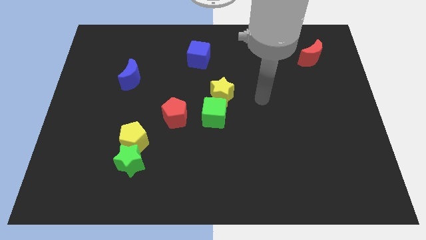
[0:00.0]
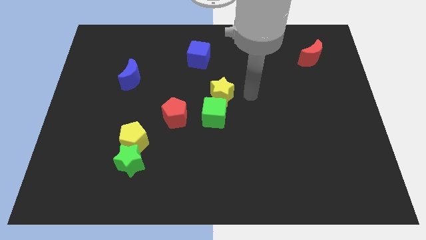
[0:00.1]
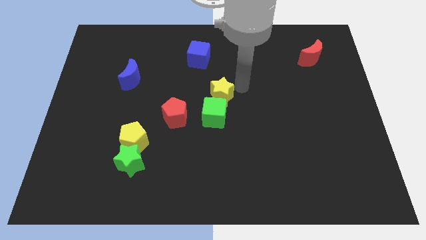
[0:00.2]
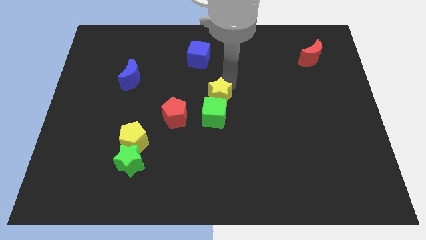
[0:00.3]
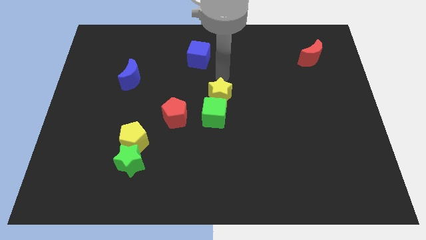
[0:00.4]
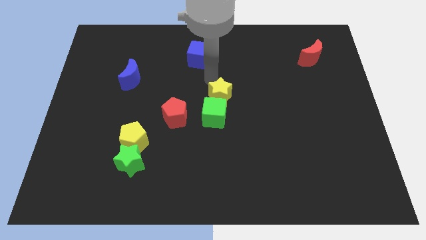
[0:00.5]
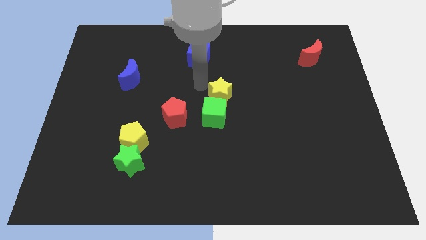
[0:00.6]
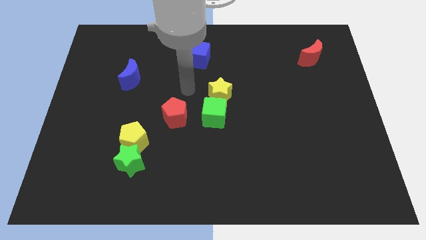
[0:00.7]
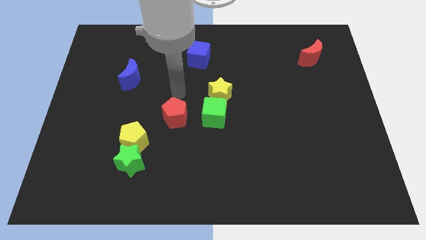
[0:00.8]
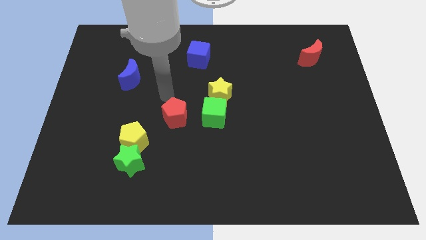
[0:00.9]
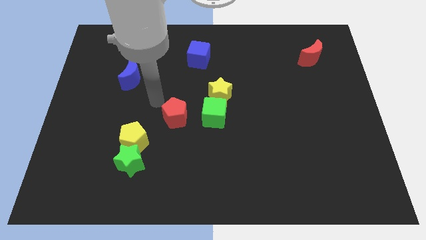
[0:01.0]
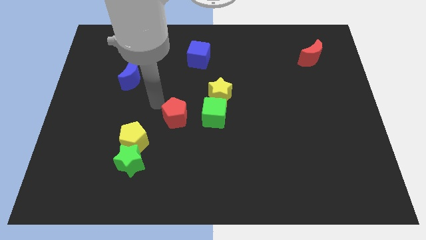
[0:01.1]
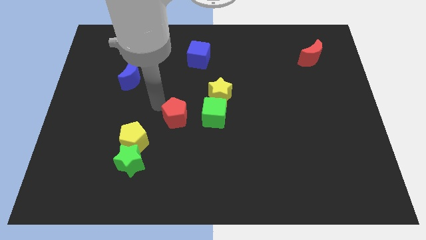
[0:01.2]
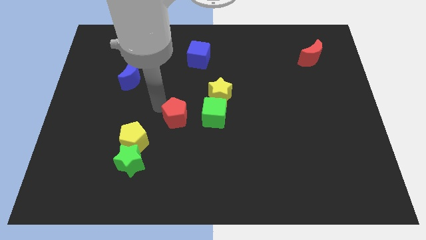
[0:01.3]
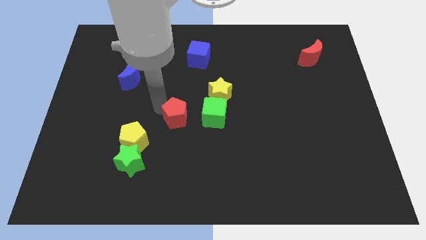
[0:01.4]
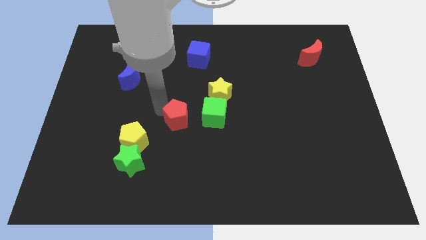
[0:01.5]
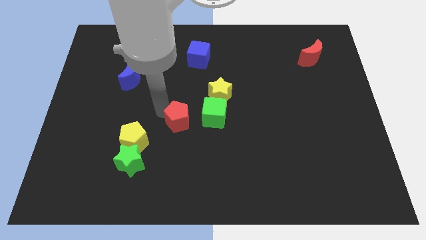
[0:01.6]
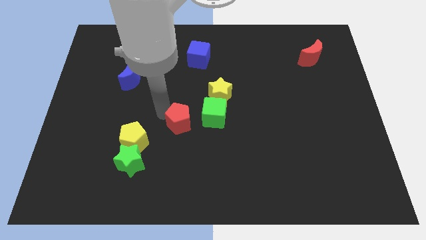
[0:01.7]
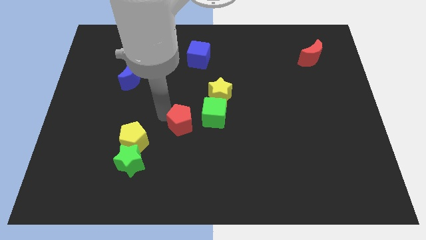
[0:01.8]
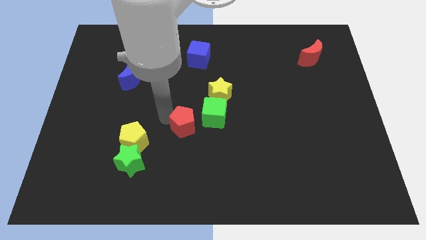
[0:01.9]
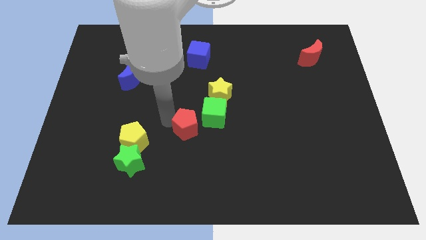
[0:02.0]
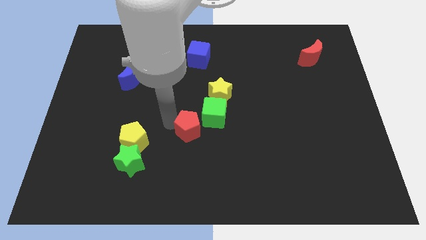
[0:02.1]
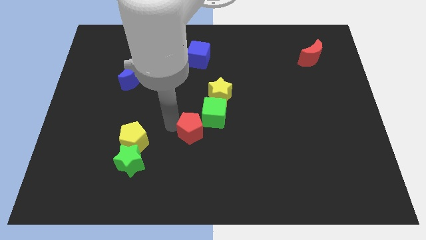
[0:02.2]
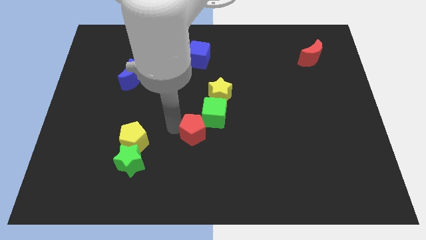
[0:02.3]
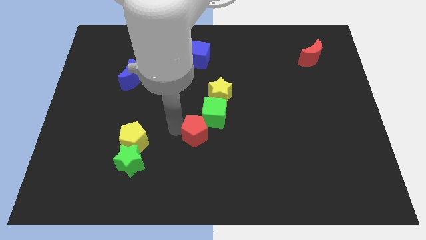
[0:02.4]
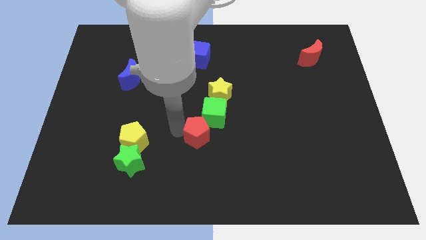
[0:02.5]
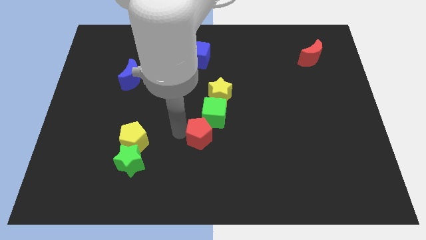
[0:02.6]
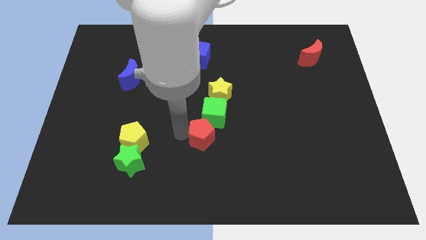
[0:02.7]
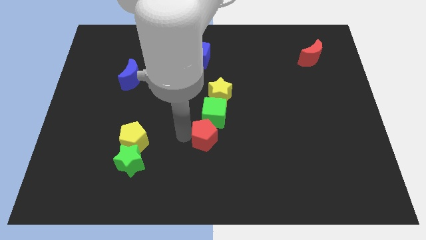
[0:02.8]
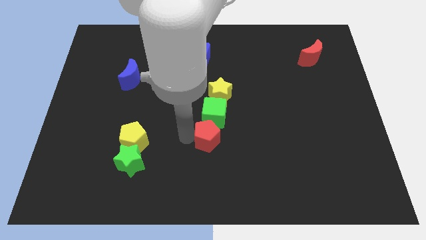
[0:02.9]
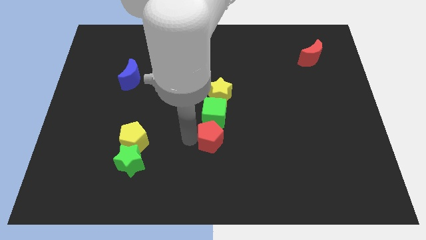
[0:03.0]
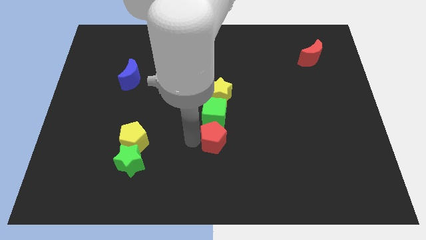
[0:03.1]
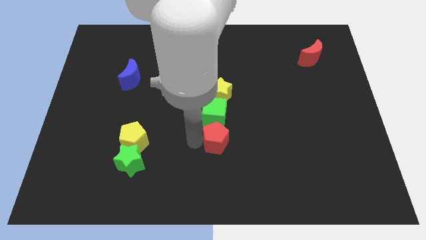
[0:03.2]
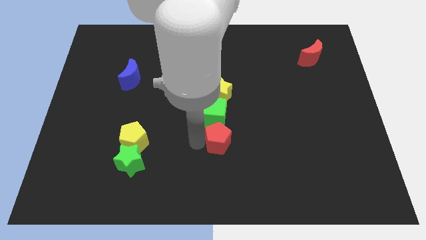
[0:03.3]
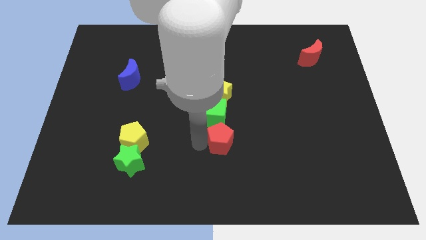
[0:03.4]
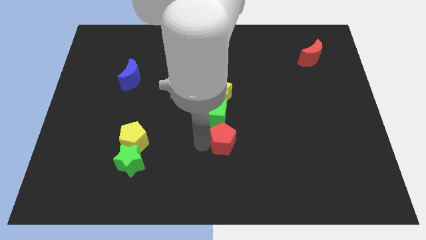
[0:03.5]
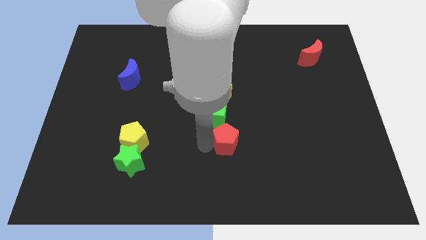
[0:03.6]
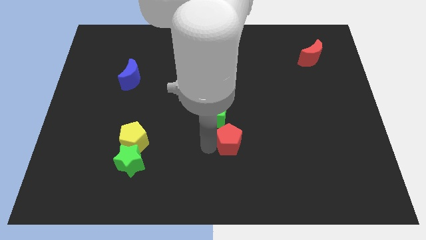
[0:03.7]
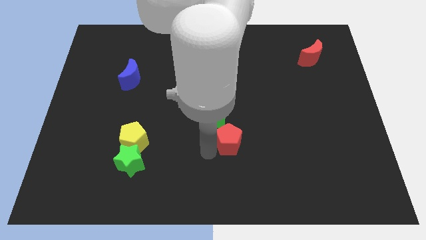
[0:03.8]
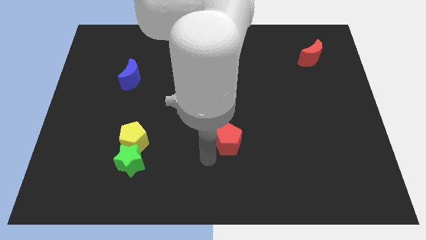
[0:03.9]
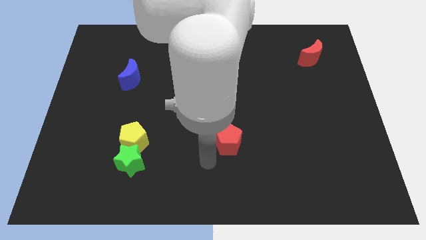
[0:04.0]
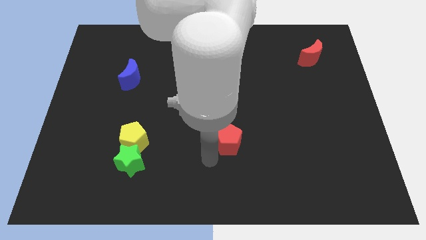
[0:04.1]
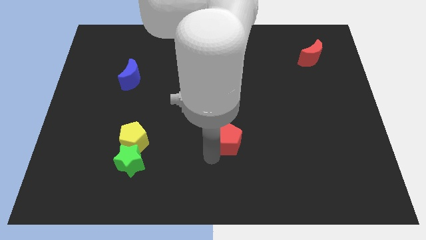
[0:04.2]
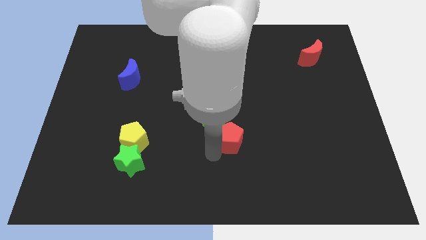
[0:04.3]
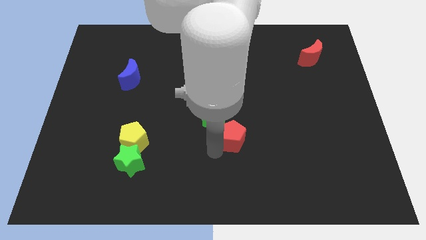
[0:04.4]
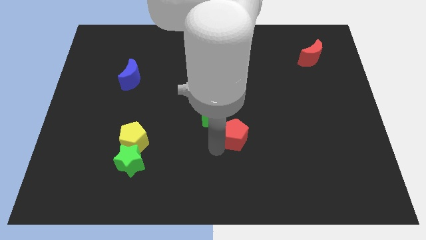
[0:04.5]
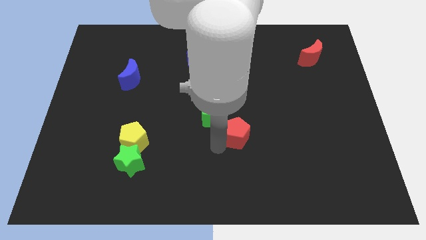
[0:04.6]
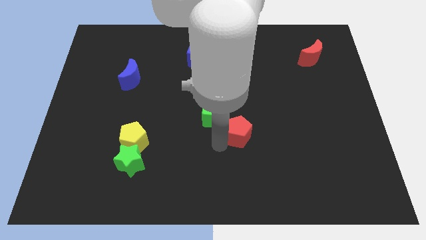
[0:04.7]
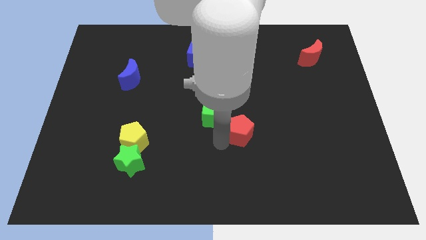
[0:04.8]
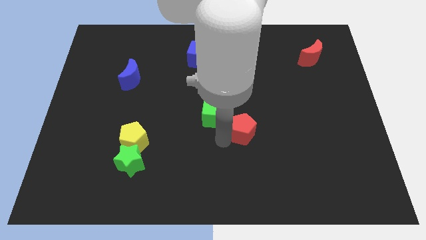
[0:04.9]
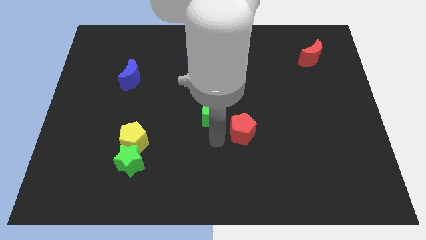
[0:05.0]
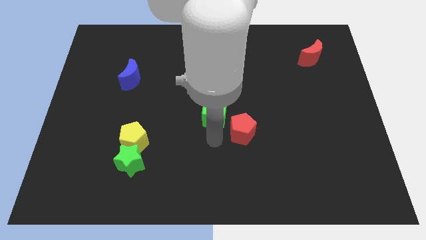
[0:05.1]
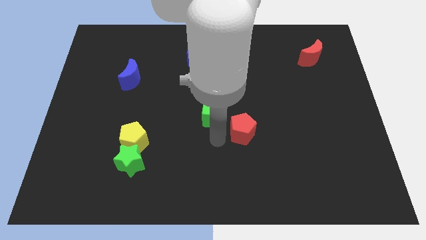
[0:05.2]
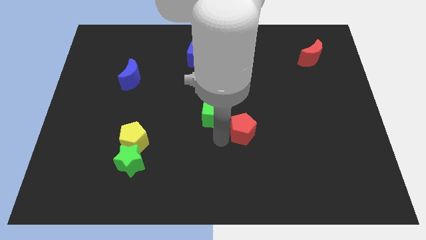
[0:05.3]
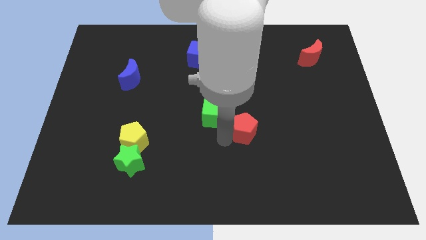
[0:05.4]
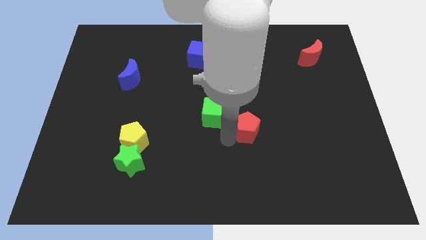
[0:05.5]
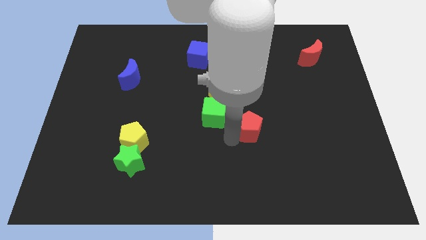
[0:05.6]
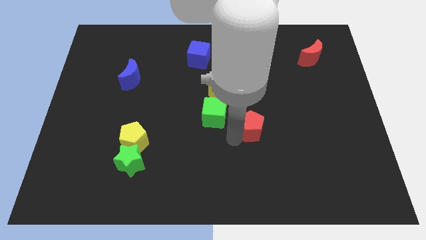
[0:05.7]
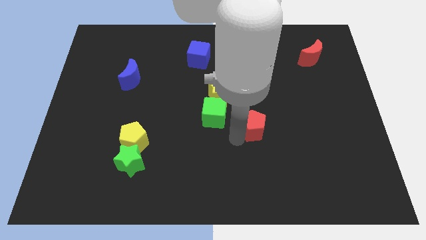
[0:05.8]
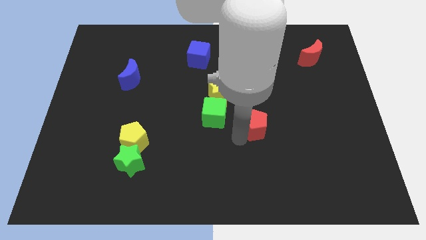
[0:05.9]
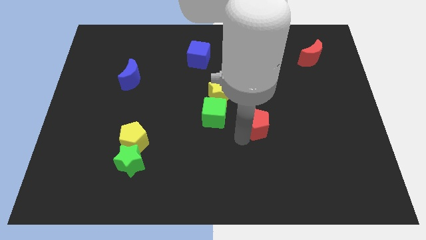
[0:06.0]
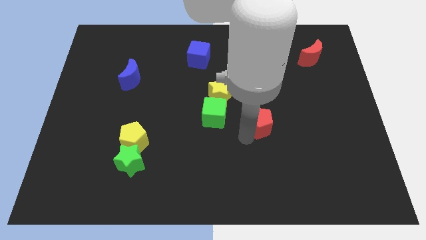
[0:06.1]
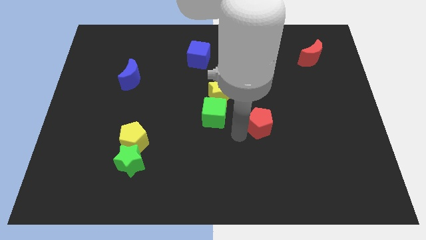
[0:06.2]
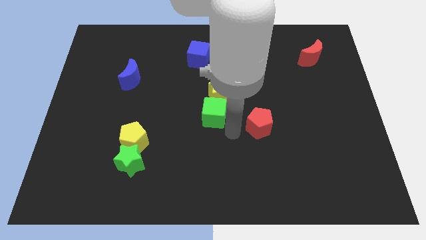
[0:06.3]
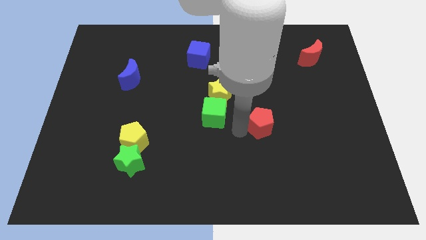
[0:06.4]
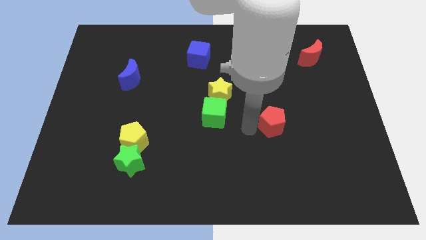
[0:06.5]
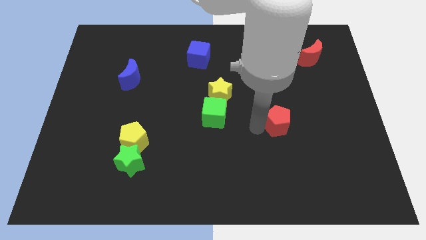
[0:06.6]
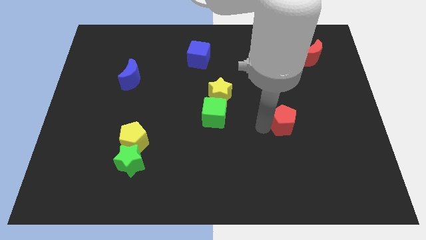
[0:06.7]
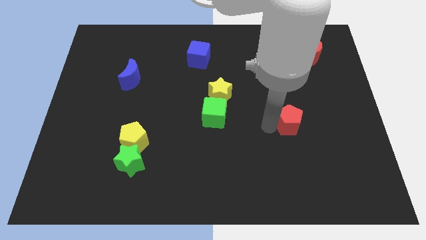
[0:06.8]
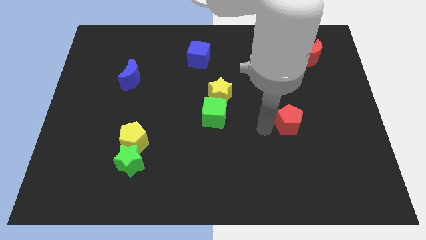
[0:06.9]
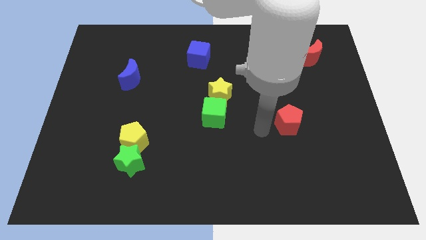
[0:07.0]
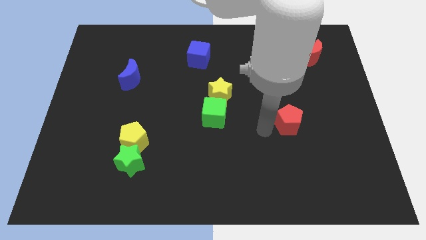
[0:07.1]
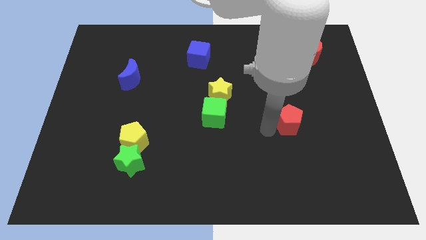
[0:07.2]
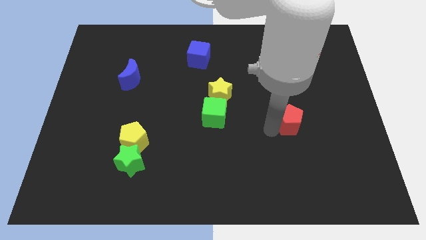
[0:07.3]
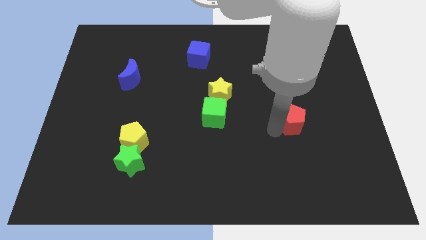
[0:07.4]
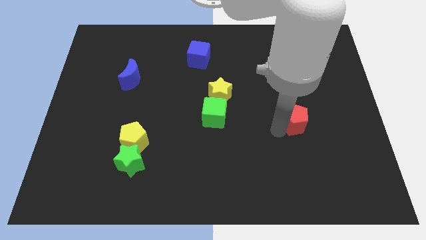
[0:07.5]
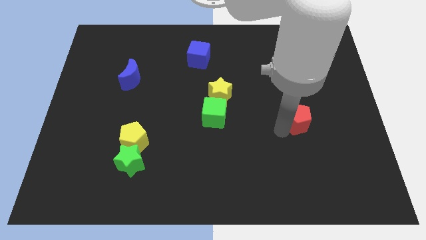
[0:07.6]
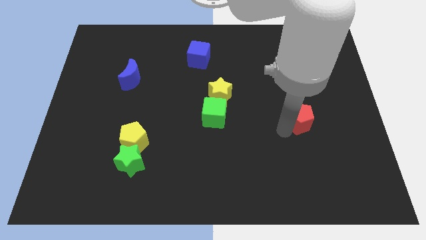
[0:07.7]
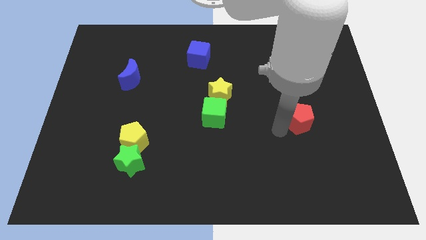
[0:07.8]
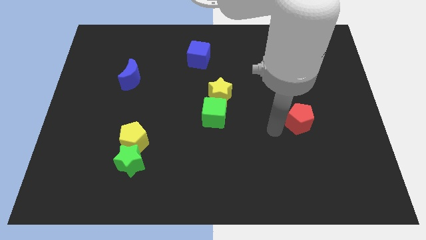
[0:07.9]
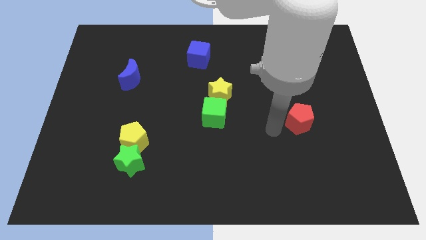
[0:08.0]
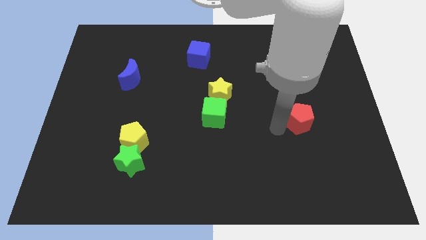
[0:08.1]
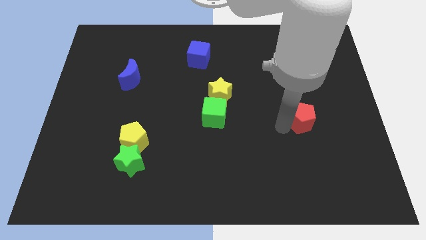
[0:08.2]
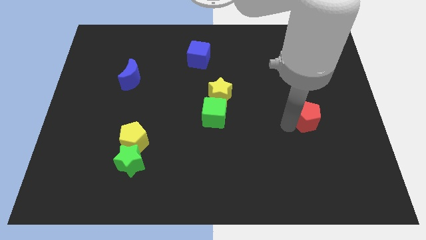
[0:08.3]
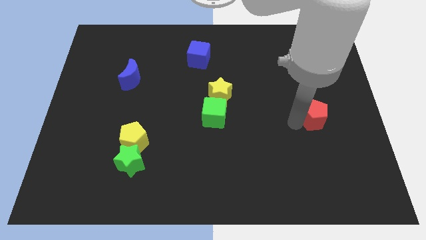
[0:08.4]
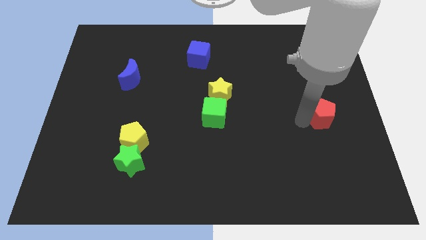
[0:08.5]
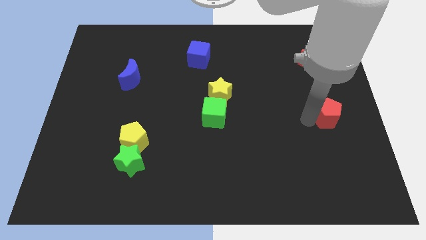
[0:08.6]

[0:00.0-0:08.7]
move the red pentagon to the center right
